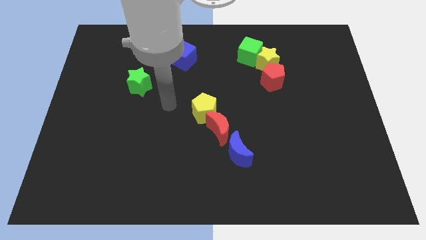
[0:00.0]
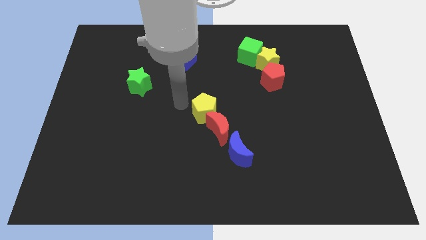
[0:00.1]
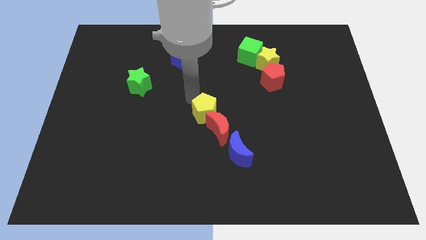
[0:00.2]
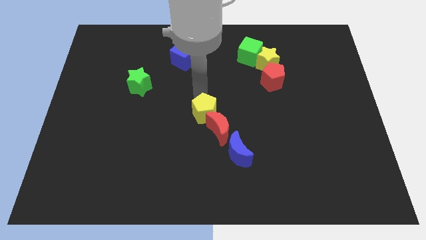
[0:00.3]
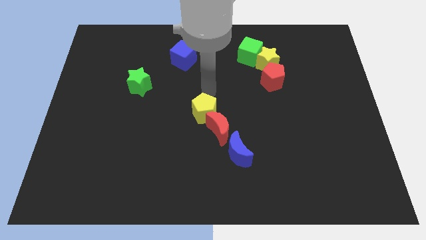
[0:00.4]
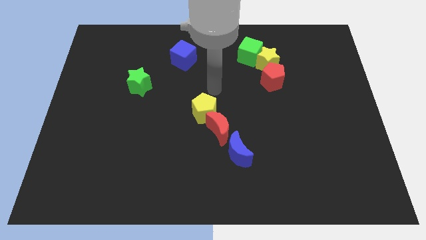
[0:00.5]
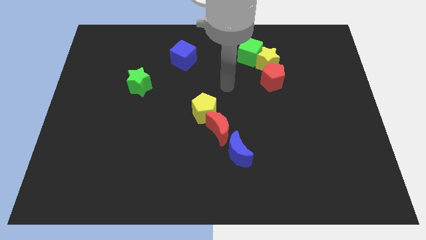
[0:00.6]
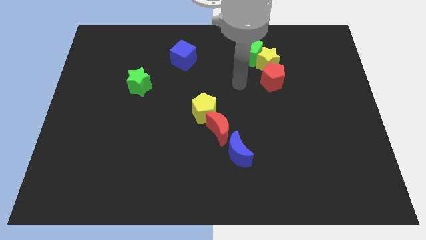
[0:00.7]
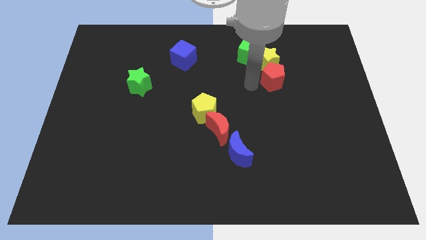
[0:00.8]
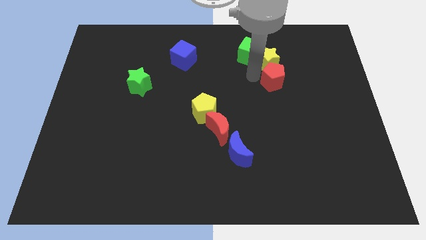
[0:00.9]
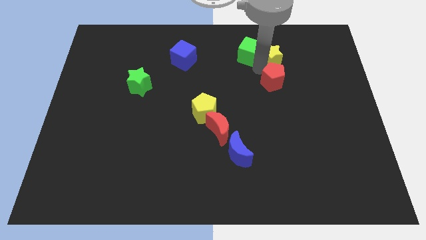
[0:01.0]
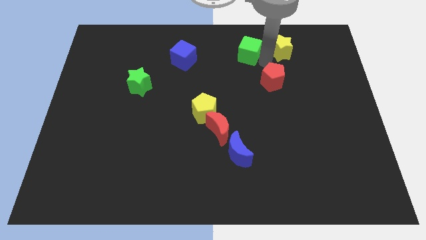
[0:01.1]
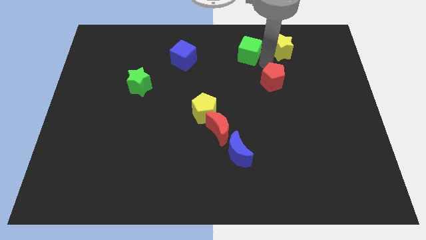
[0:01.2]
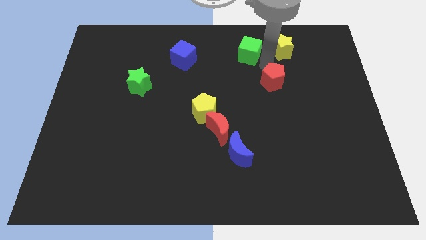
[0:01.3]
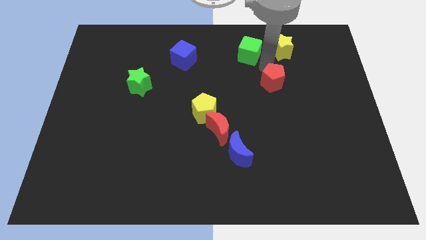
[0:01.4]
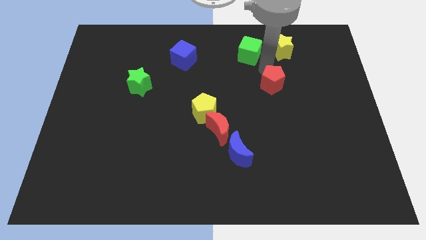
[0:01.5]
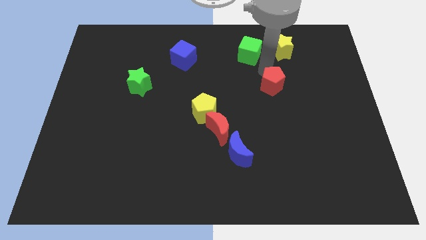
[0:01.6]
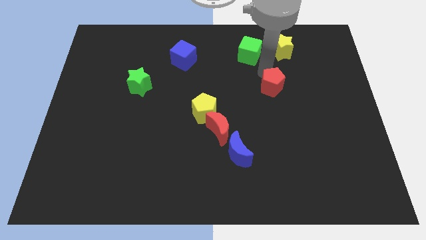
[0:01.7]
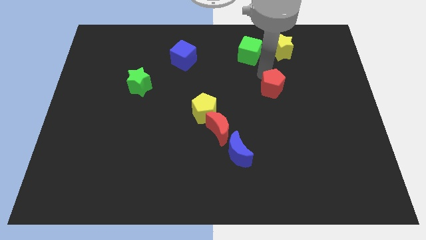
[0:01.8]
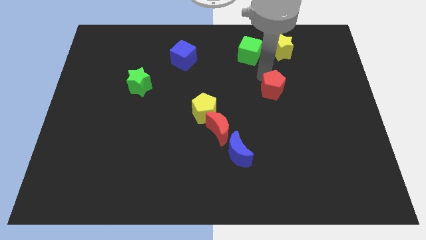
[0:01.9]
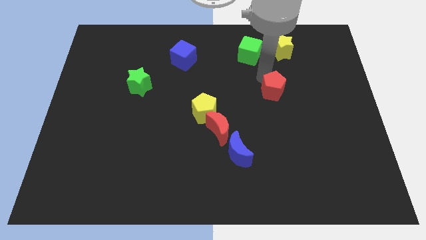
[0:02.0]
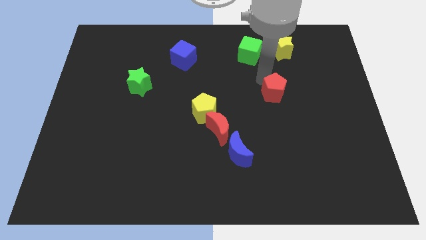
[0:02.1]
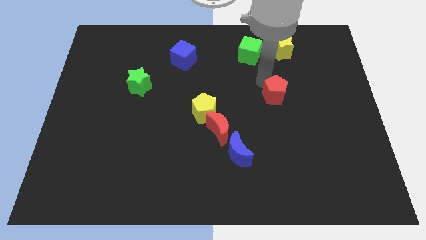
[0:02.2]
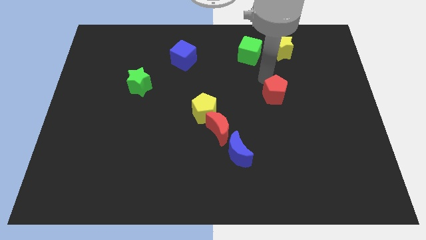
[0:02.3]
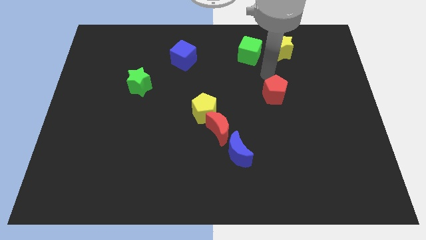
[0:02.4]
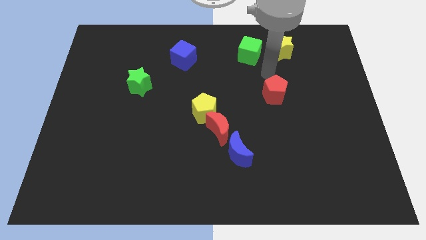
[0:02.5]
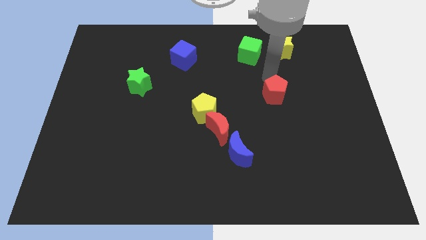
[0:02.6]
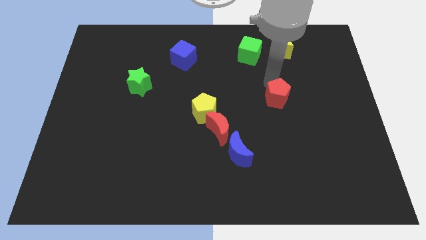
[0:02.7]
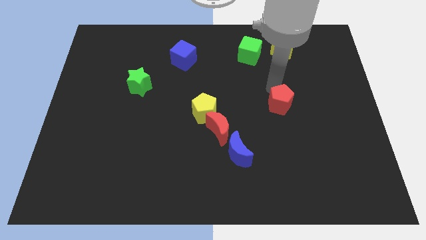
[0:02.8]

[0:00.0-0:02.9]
slightly slide the red pentagon downwards

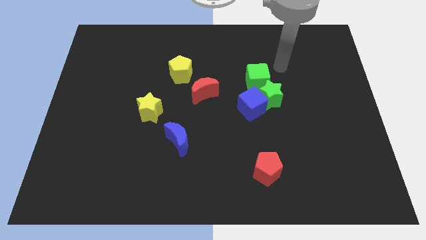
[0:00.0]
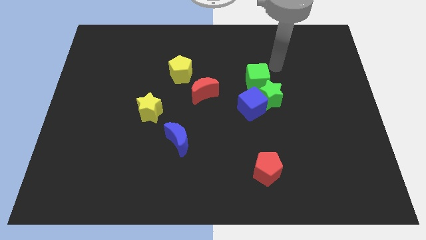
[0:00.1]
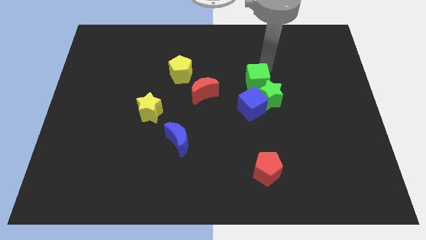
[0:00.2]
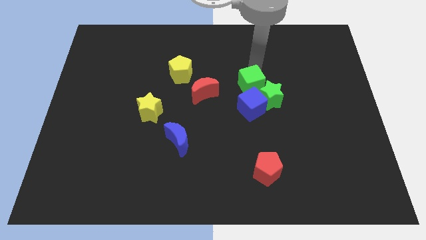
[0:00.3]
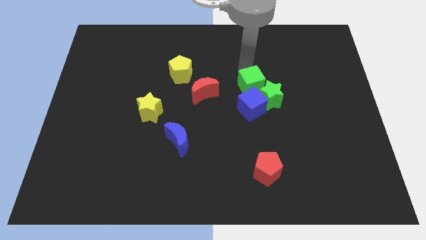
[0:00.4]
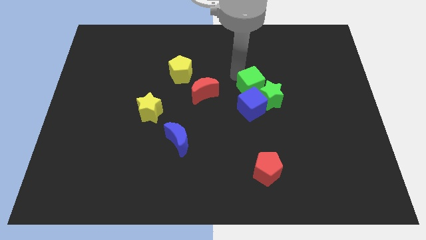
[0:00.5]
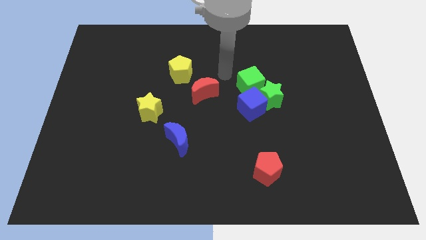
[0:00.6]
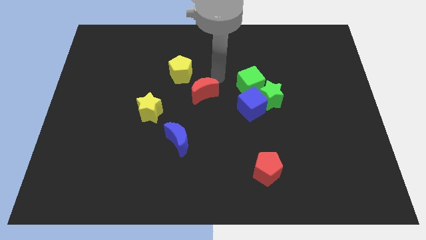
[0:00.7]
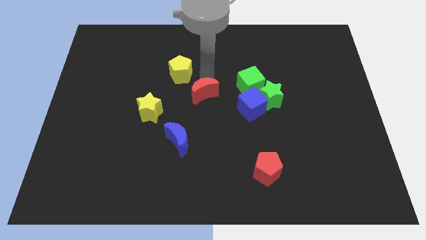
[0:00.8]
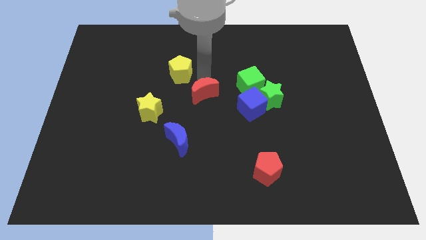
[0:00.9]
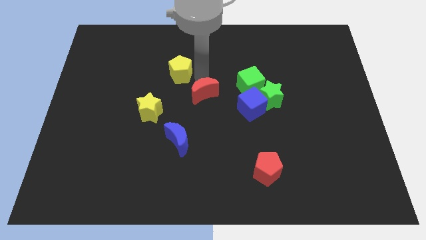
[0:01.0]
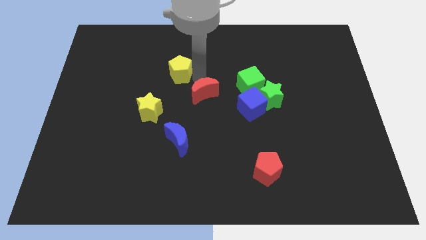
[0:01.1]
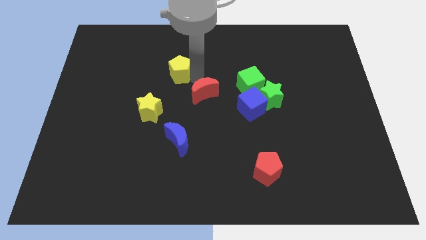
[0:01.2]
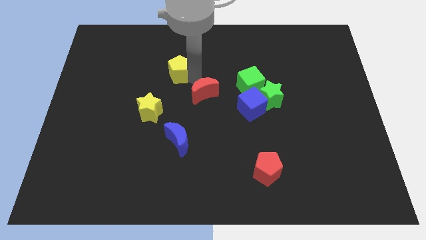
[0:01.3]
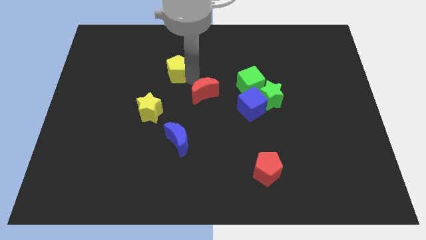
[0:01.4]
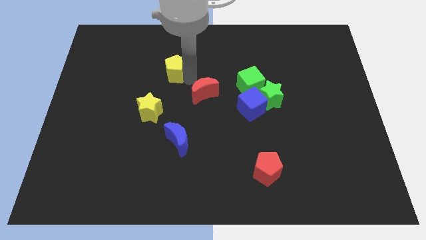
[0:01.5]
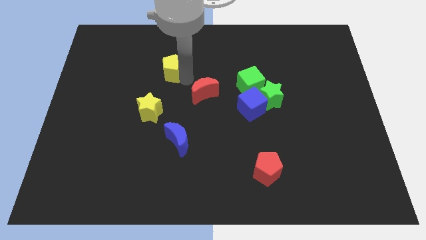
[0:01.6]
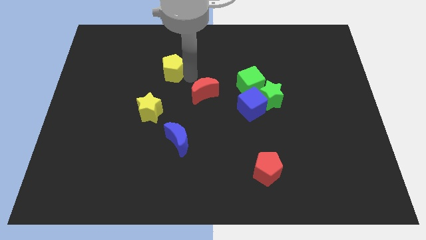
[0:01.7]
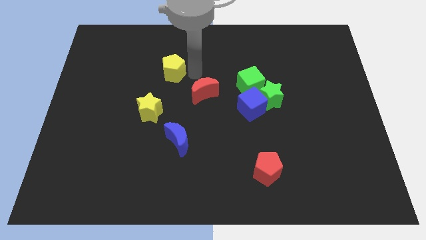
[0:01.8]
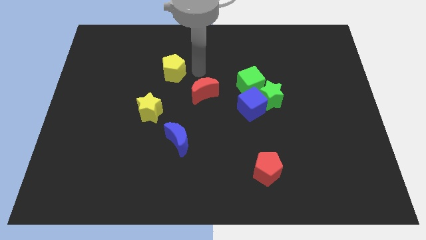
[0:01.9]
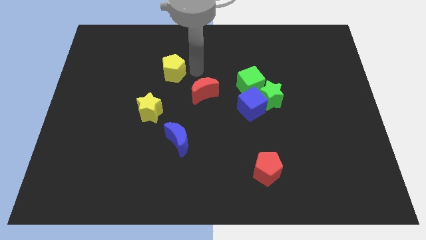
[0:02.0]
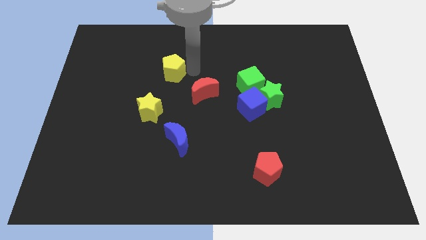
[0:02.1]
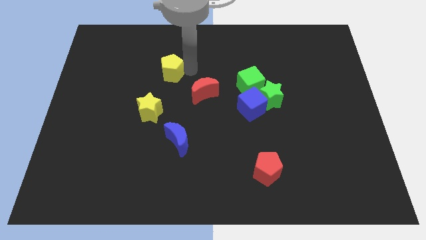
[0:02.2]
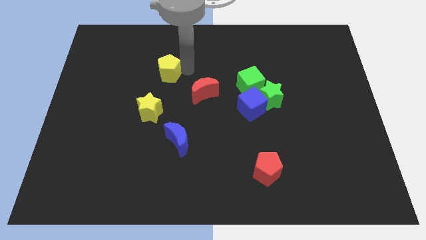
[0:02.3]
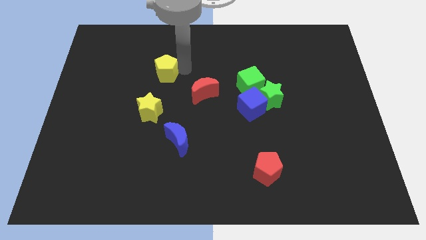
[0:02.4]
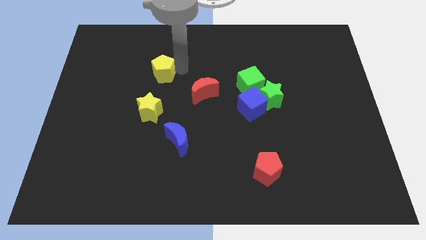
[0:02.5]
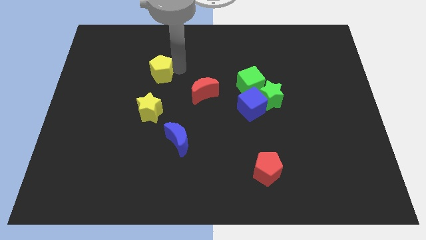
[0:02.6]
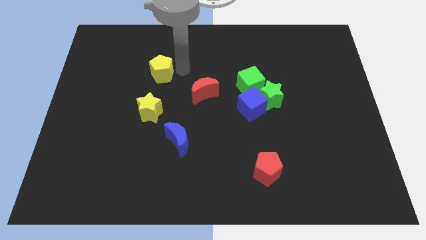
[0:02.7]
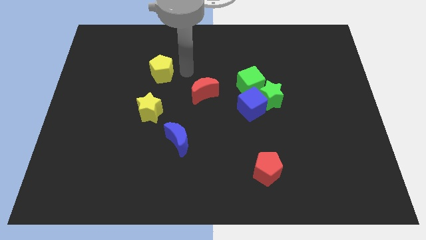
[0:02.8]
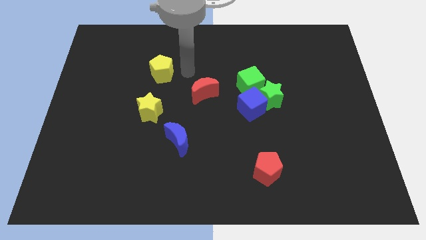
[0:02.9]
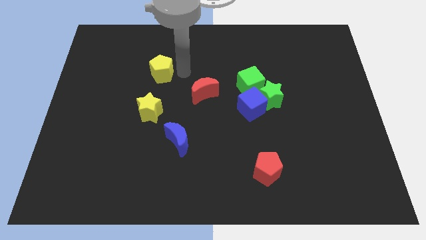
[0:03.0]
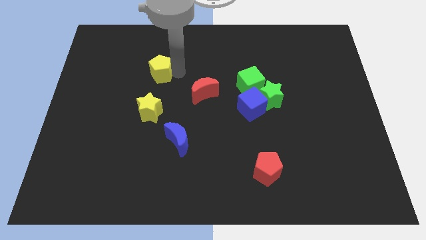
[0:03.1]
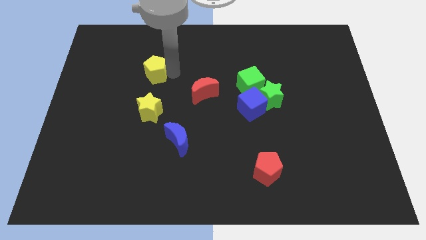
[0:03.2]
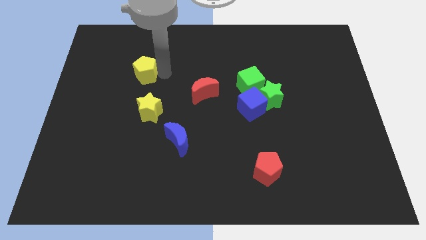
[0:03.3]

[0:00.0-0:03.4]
move the yellow pentagon left slightly

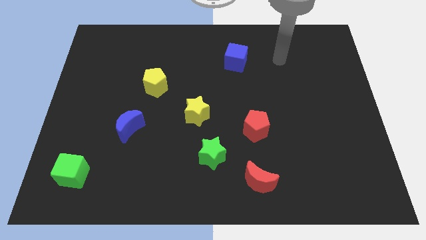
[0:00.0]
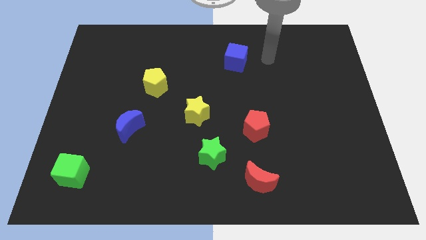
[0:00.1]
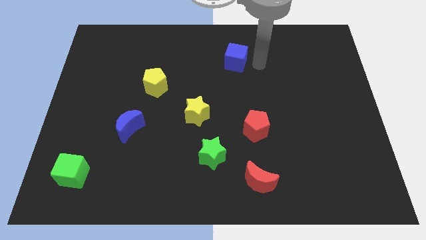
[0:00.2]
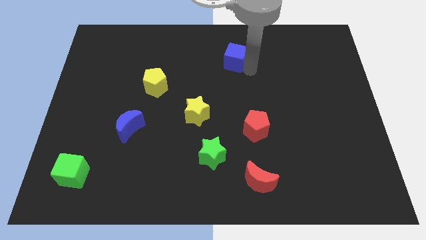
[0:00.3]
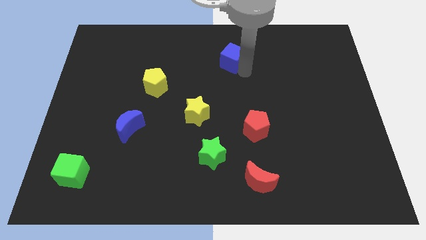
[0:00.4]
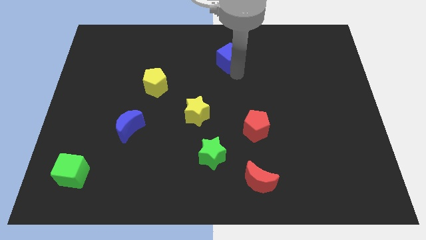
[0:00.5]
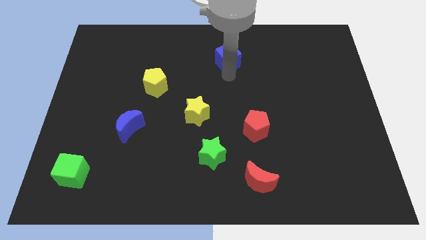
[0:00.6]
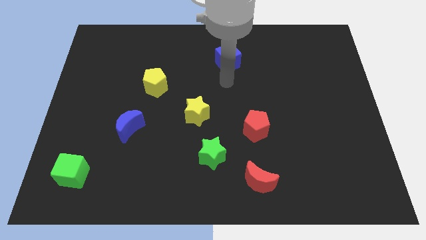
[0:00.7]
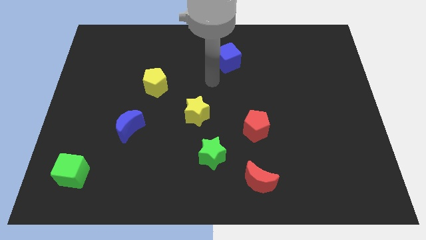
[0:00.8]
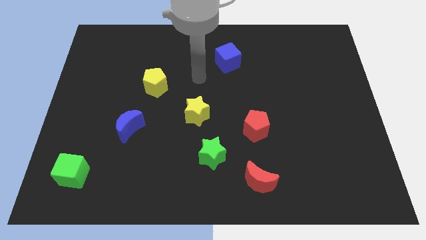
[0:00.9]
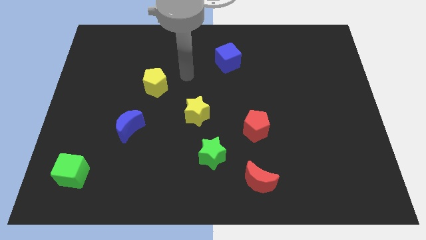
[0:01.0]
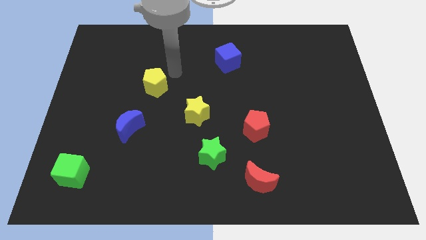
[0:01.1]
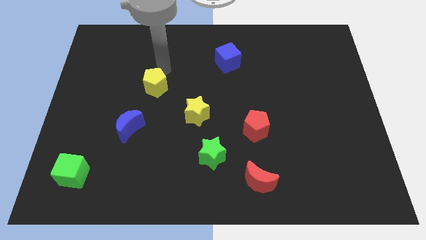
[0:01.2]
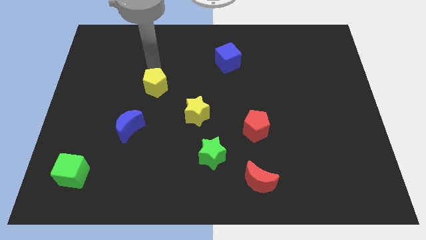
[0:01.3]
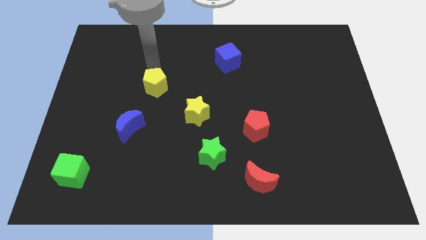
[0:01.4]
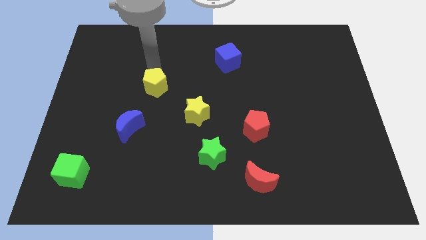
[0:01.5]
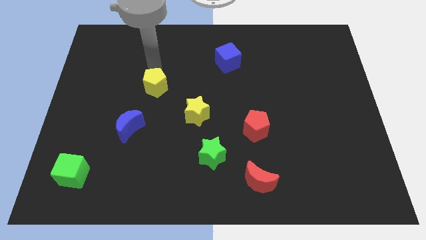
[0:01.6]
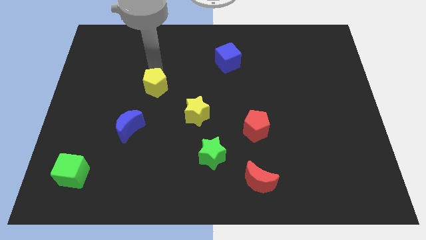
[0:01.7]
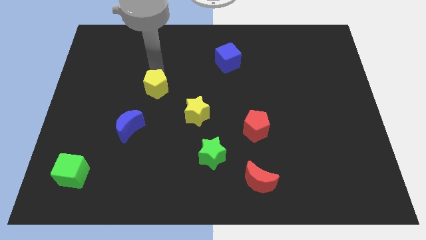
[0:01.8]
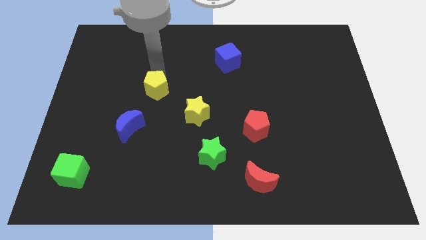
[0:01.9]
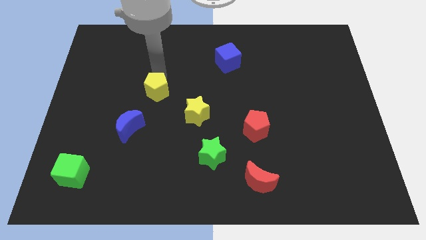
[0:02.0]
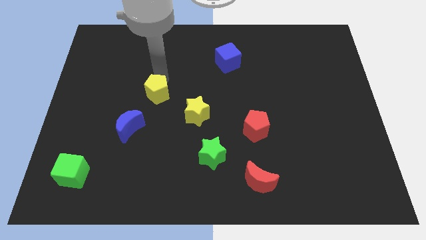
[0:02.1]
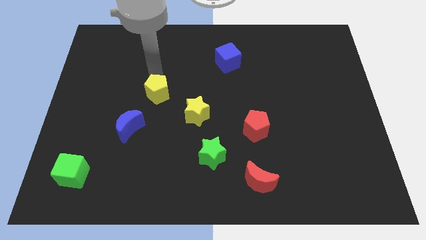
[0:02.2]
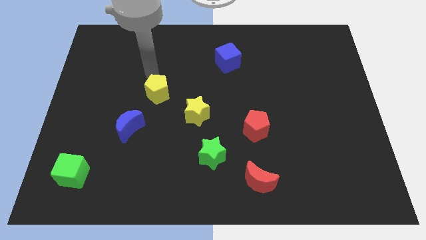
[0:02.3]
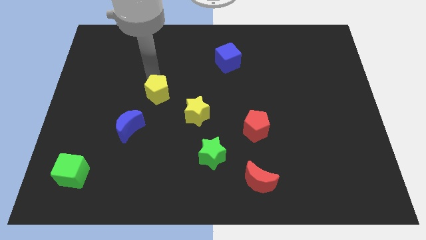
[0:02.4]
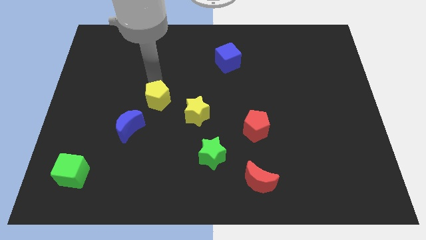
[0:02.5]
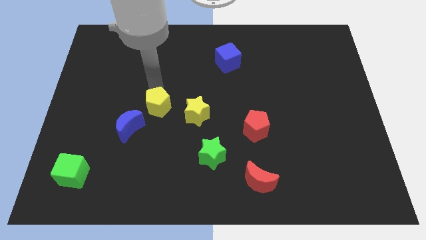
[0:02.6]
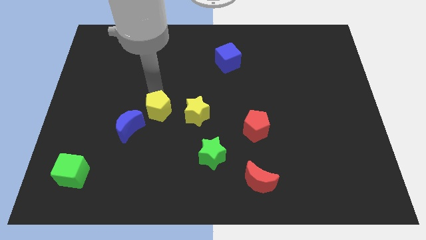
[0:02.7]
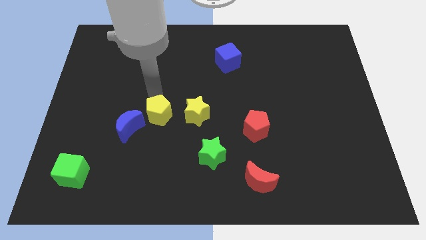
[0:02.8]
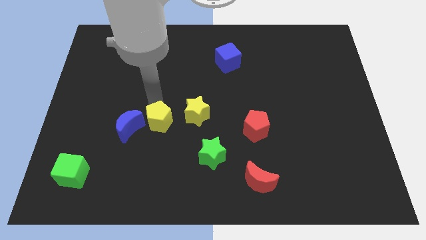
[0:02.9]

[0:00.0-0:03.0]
push the yellow pentagon a little down and to the right
